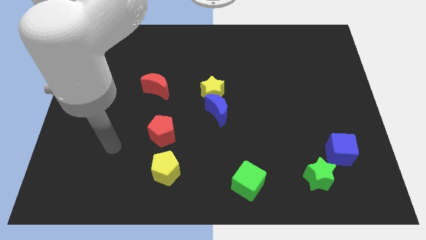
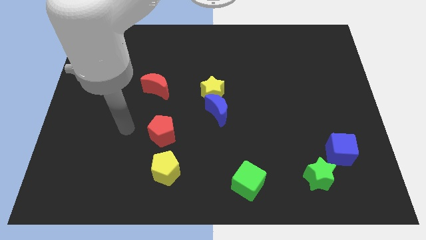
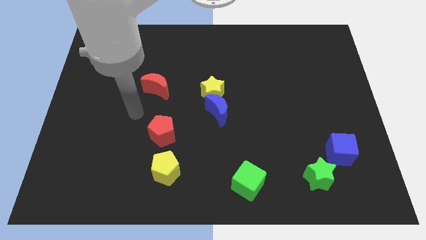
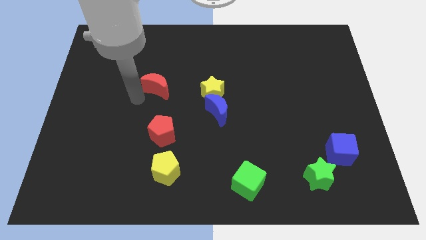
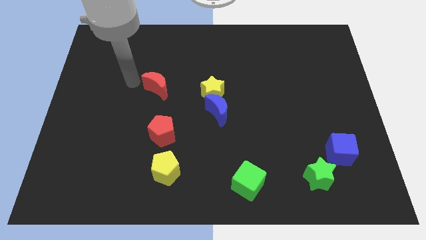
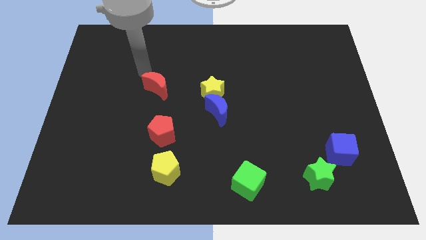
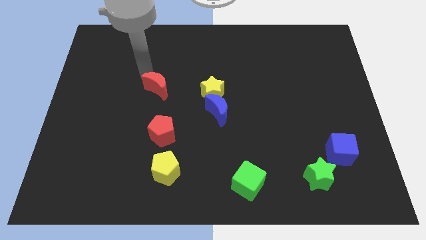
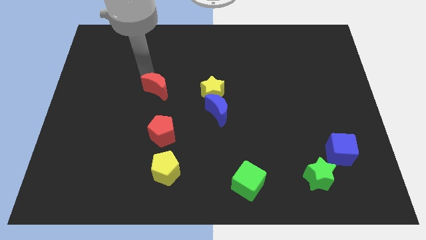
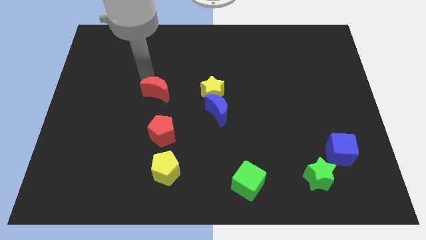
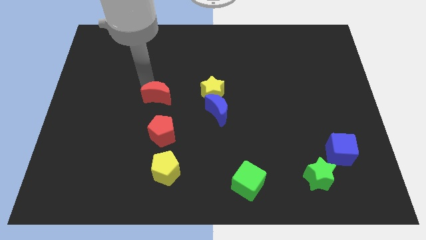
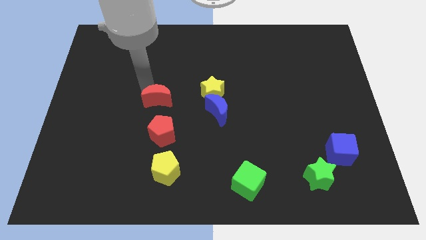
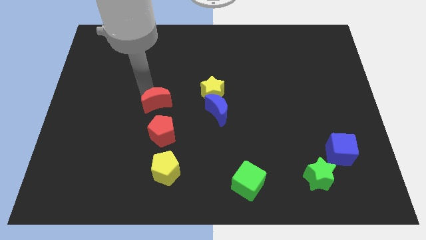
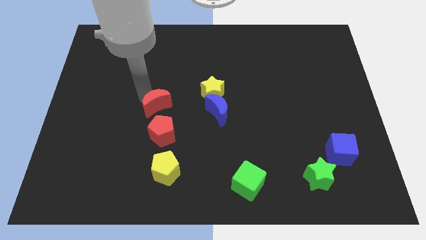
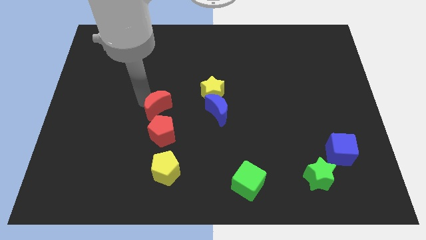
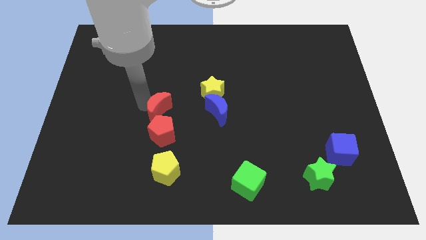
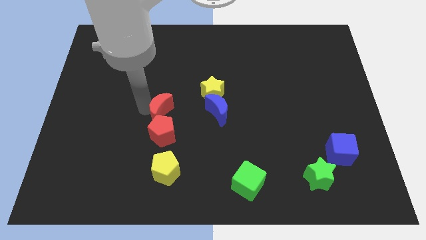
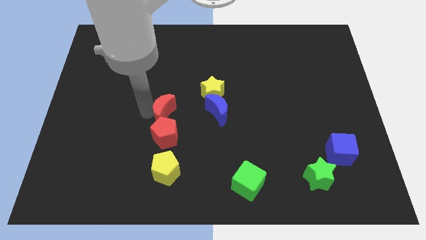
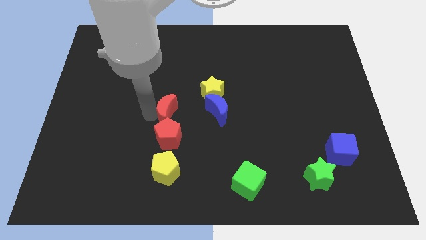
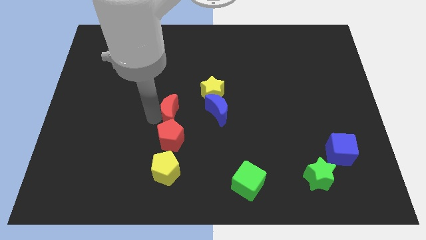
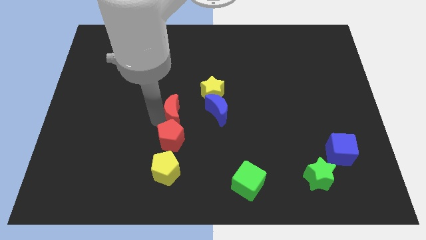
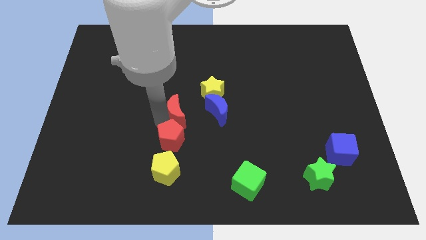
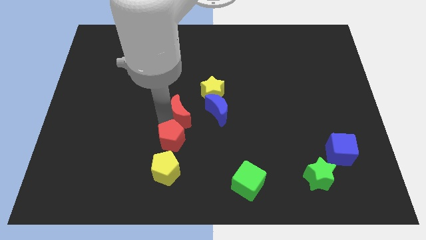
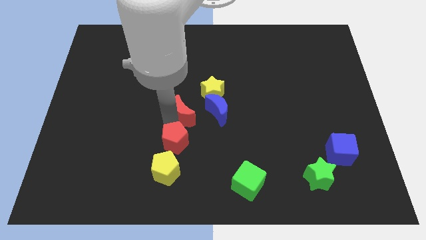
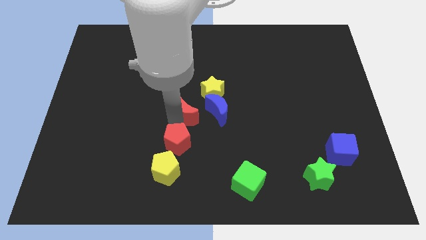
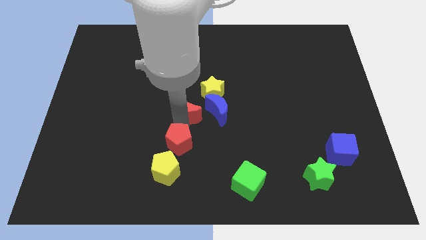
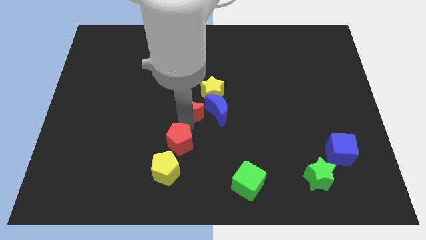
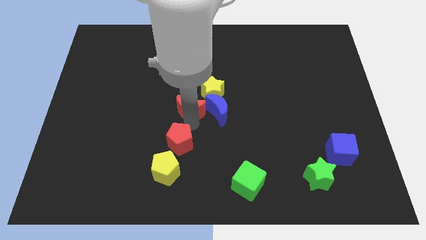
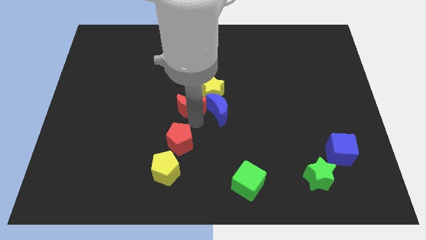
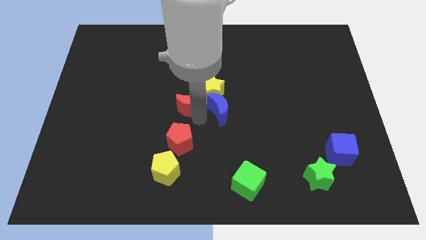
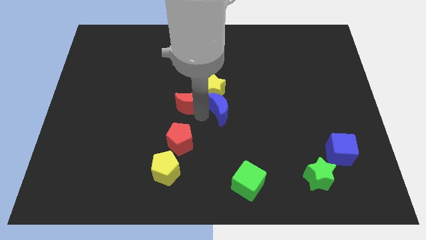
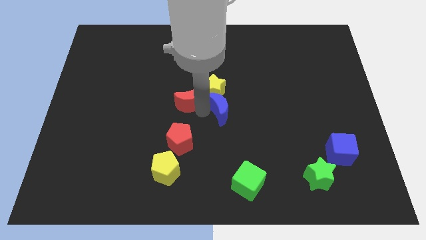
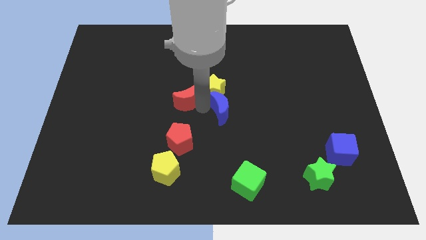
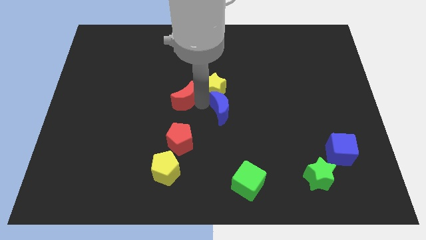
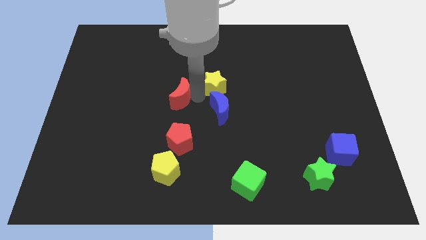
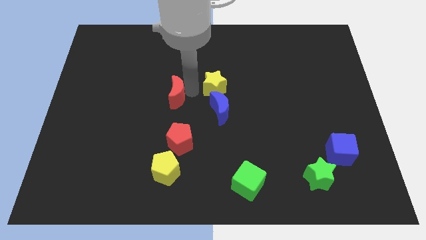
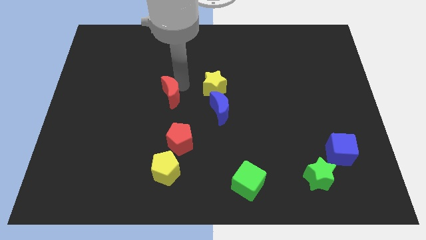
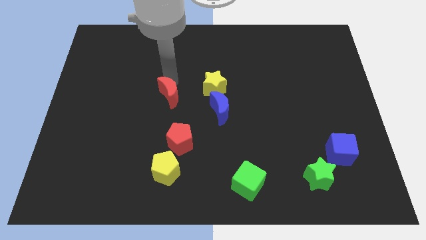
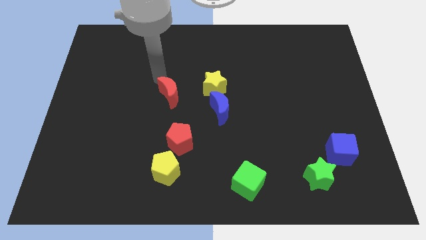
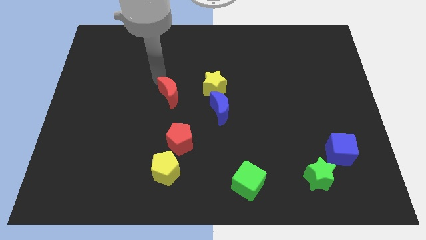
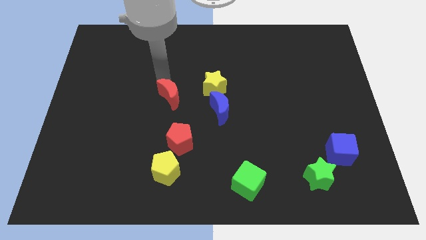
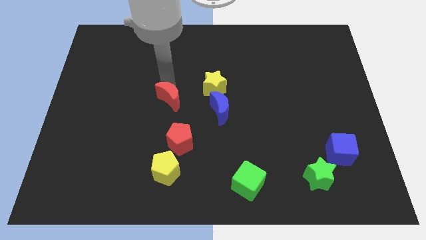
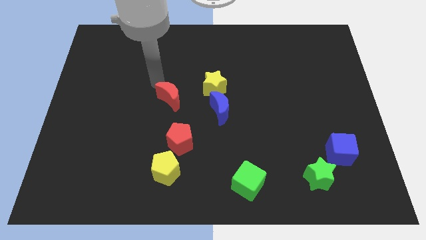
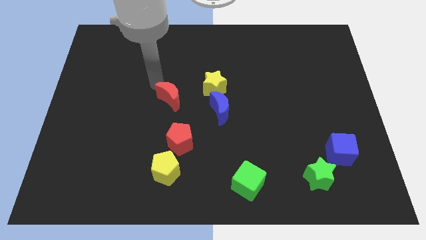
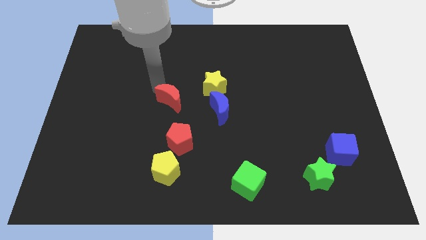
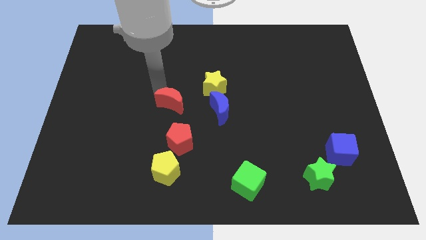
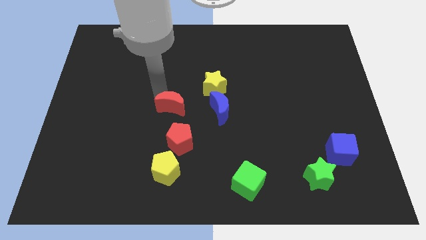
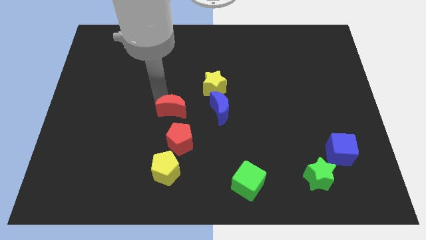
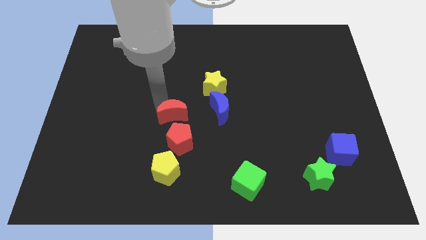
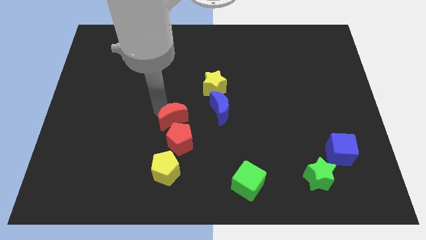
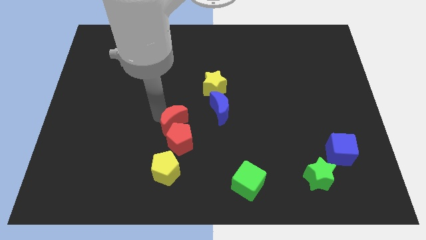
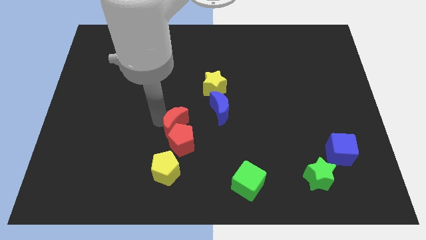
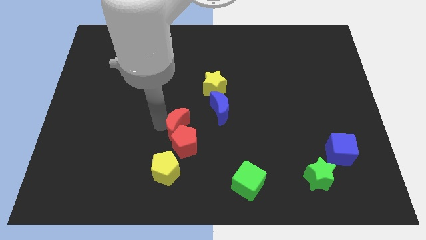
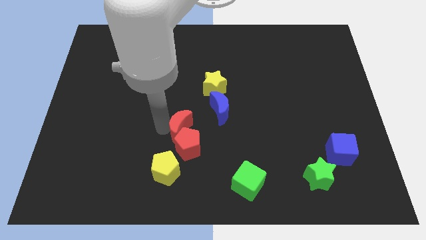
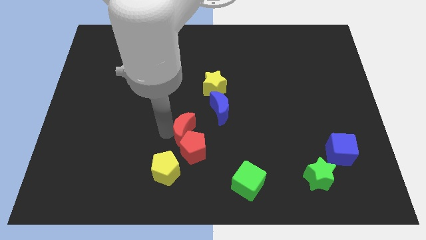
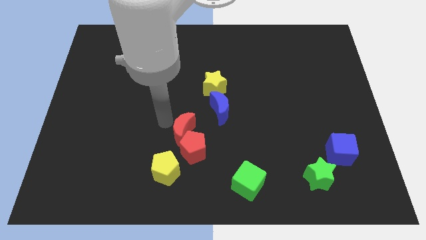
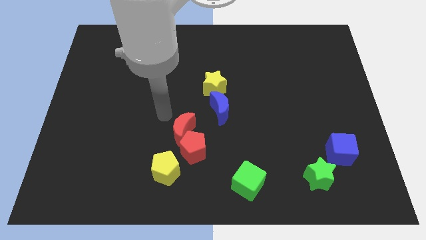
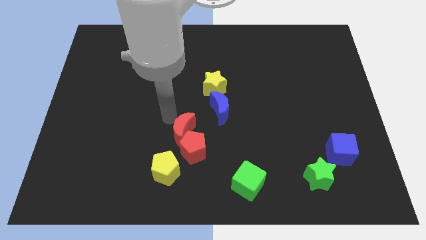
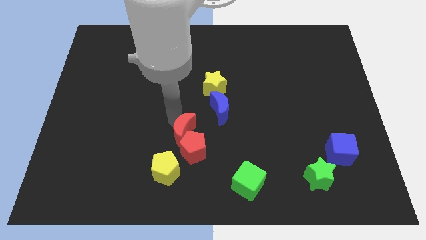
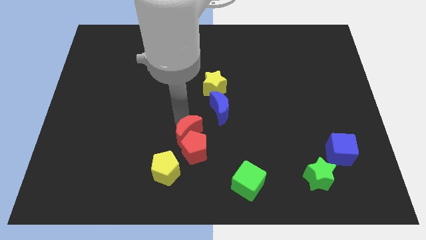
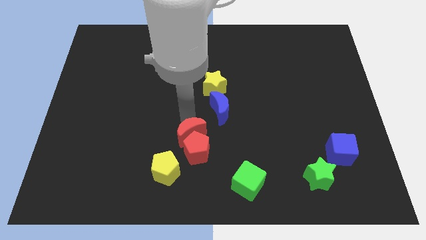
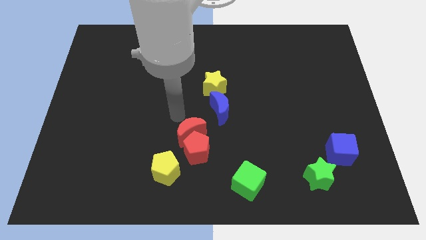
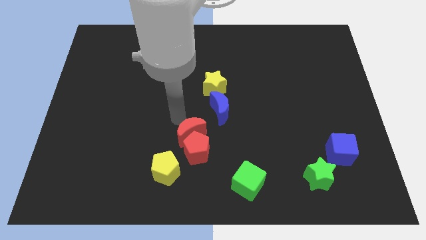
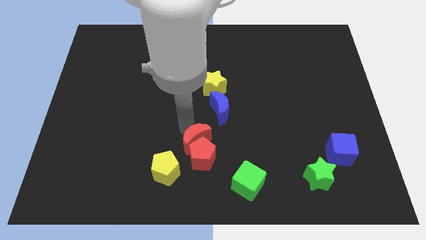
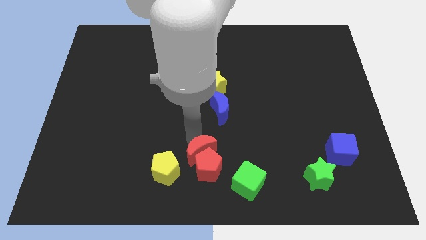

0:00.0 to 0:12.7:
slide the red moon to the right side of the yellow pentagon

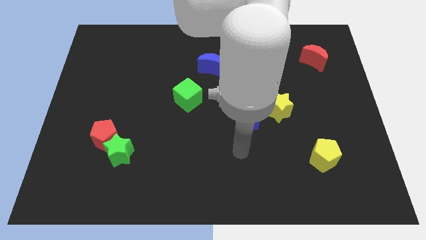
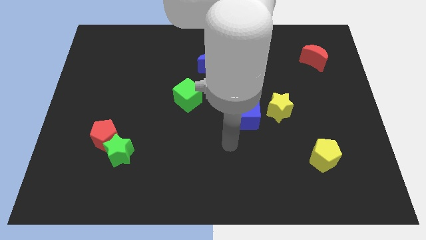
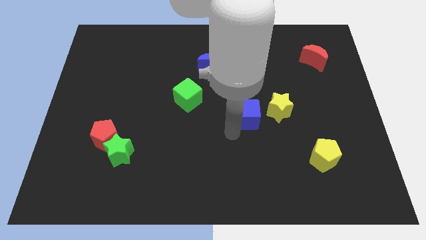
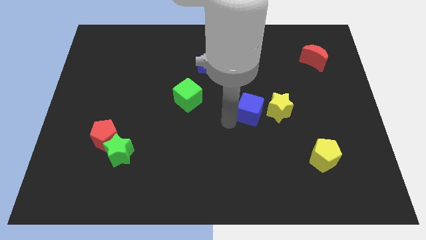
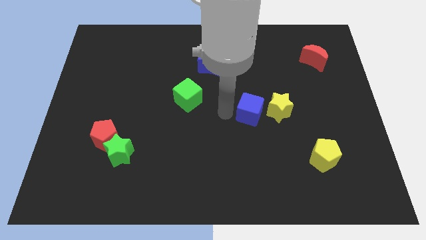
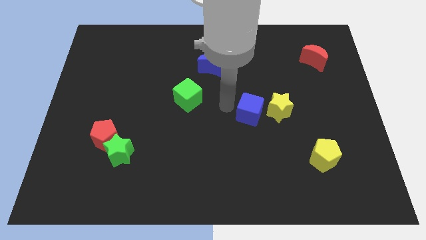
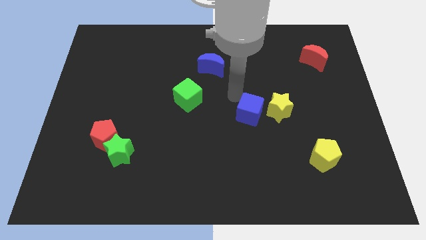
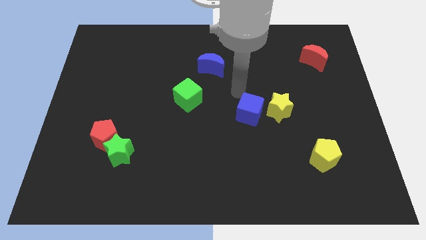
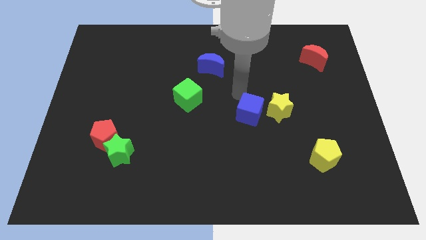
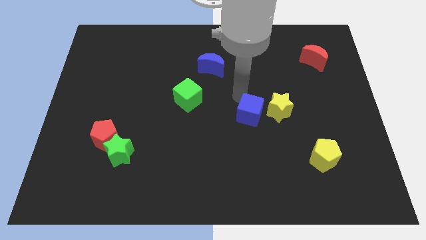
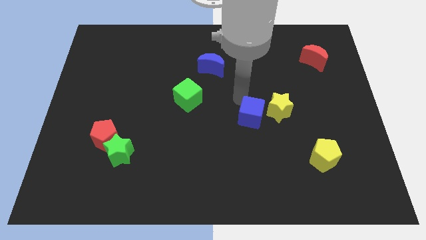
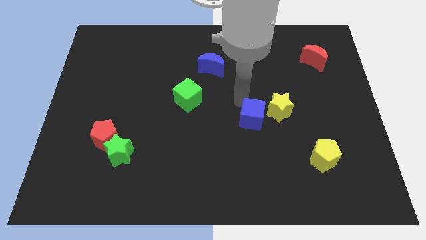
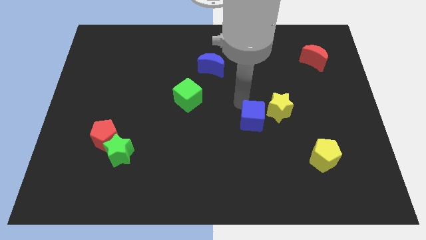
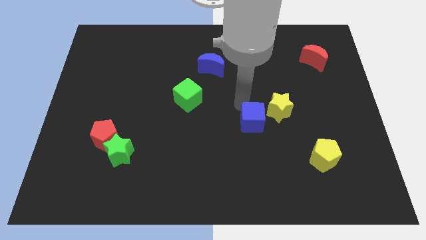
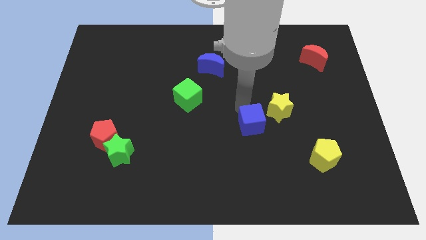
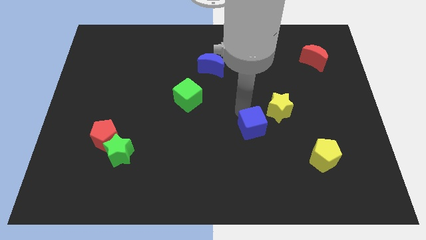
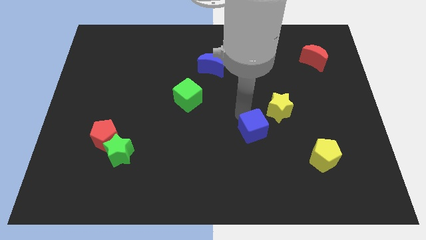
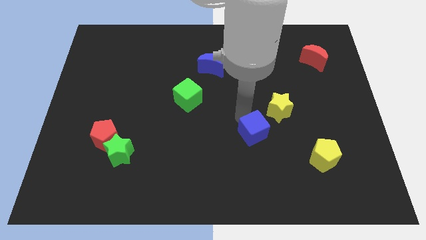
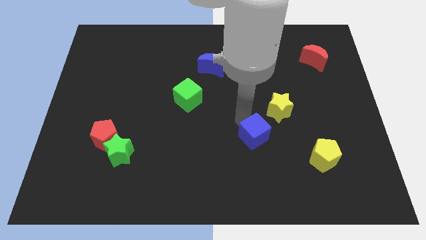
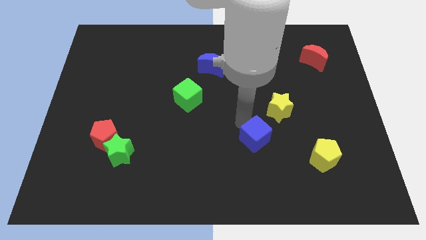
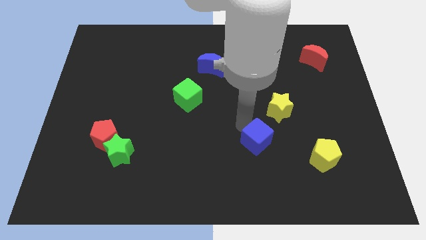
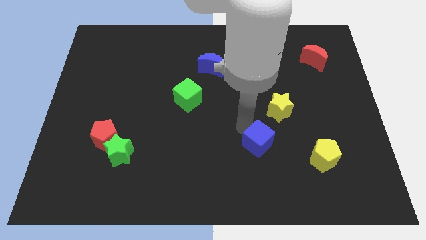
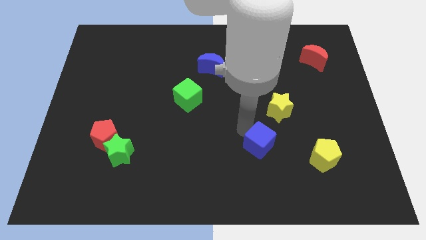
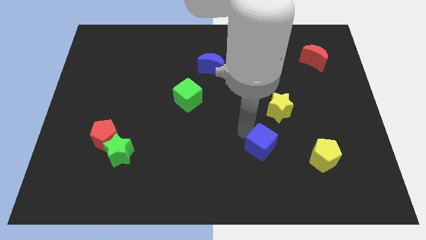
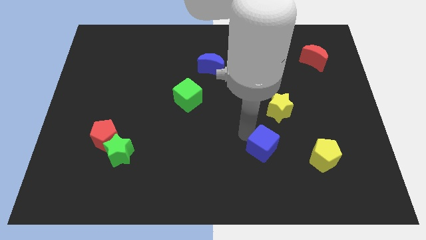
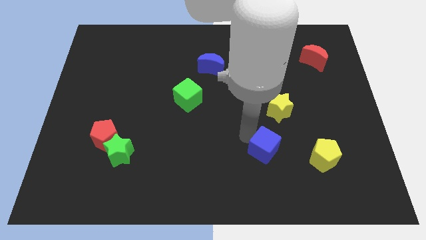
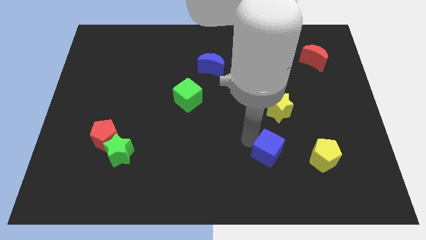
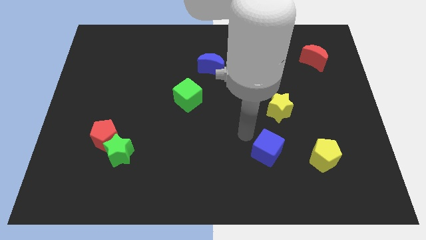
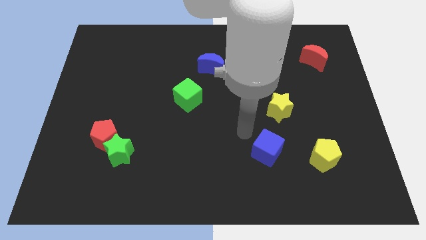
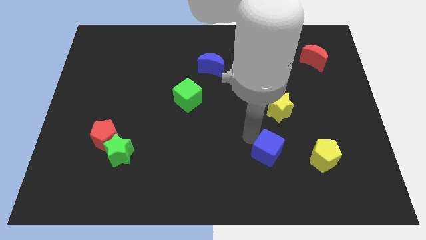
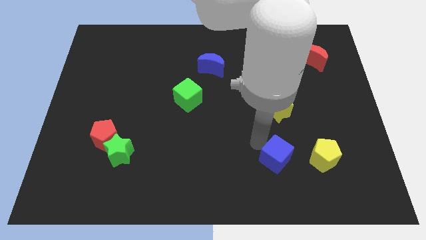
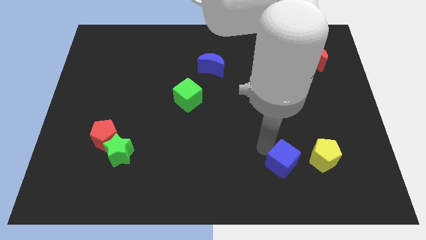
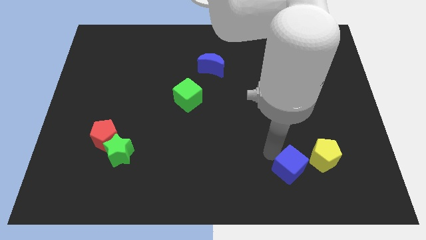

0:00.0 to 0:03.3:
put the blue cube diagonally down and to the left of the yellow pentagon
